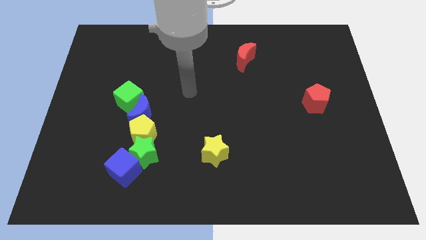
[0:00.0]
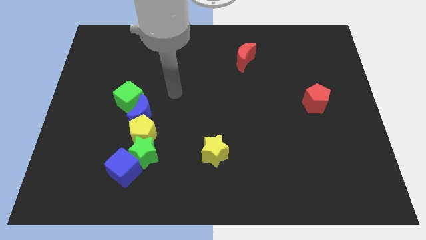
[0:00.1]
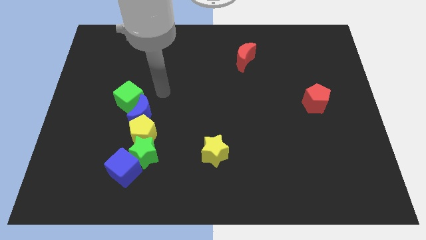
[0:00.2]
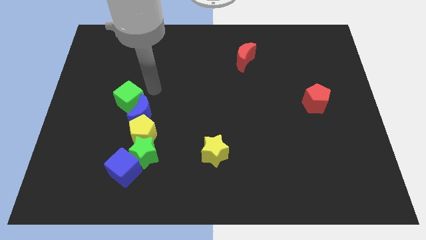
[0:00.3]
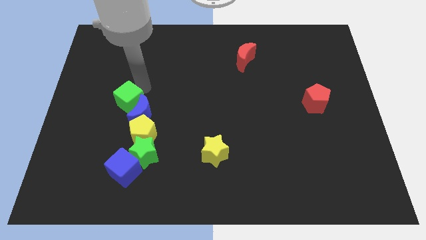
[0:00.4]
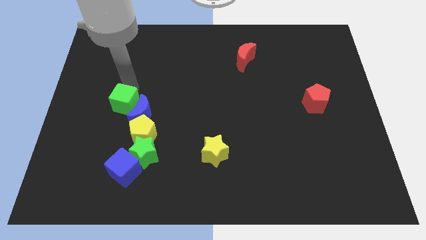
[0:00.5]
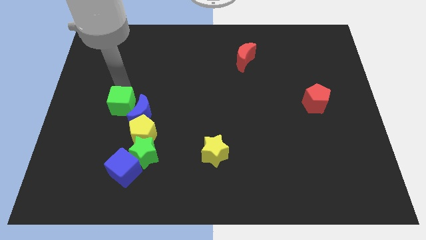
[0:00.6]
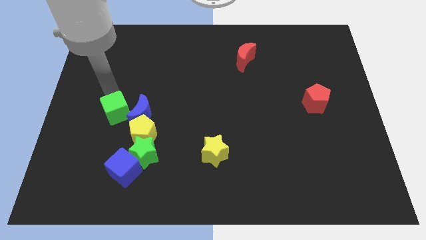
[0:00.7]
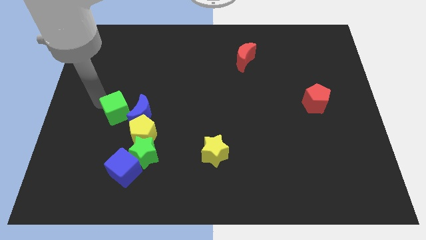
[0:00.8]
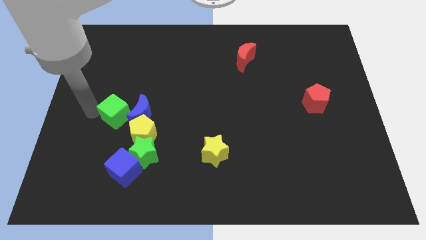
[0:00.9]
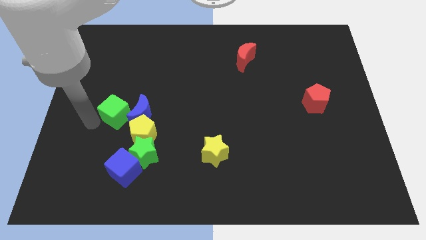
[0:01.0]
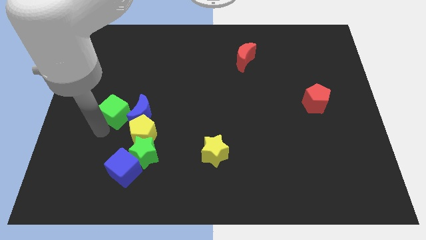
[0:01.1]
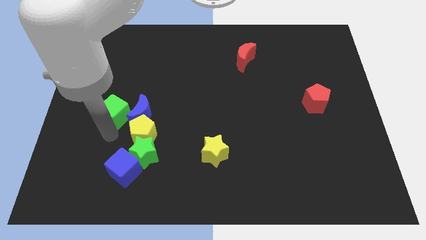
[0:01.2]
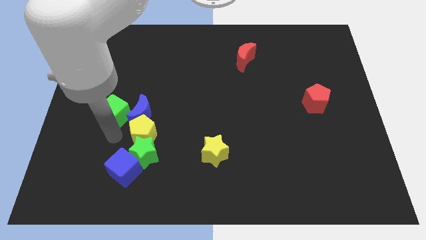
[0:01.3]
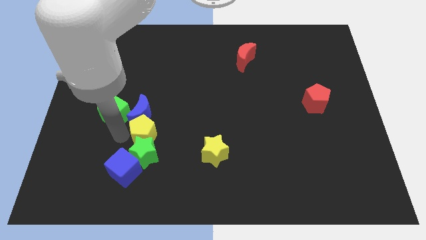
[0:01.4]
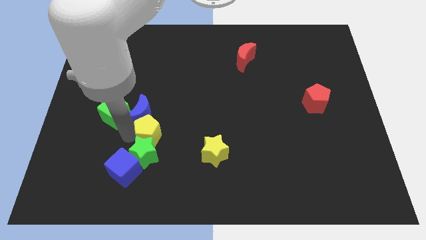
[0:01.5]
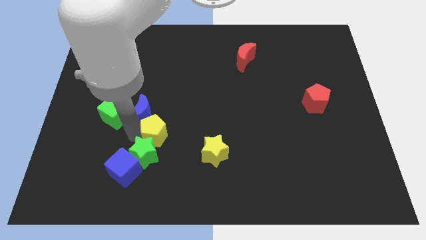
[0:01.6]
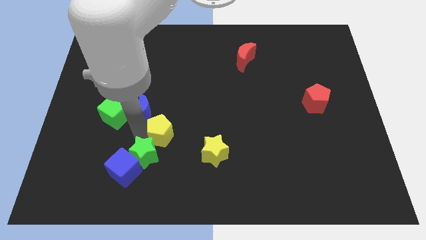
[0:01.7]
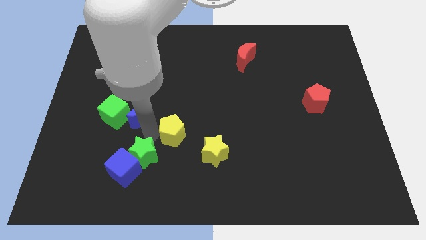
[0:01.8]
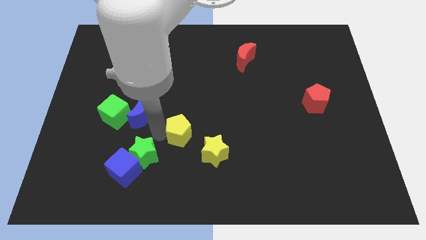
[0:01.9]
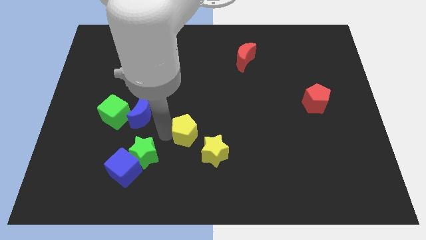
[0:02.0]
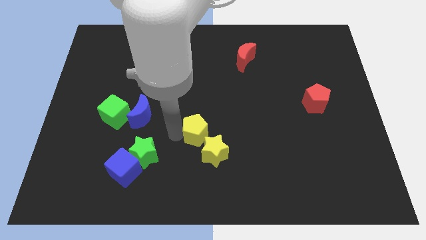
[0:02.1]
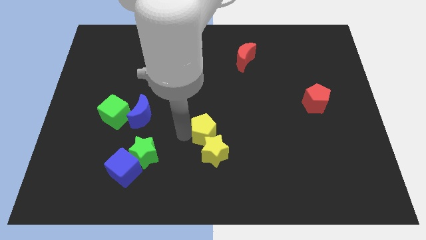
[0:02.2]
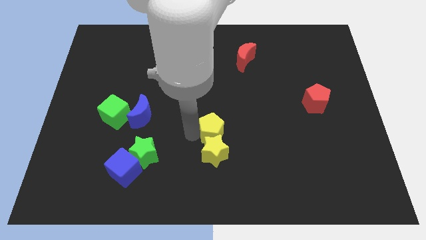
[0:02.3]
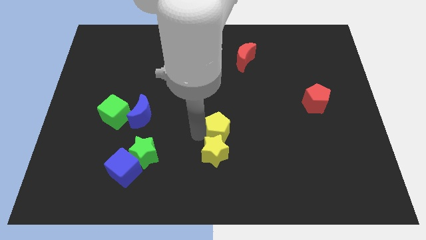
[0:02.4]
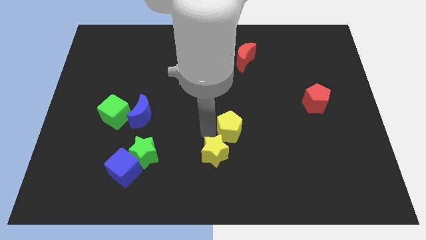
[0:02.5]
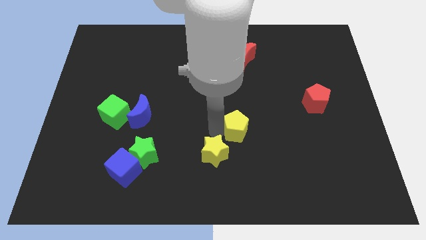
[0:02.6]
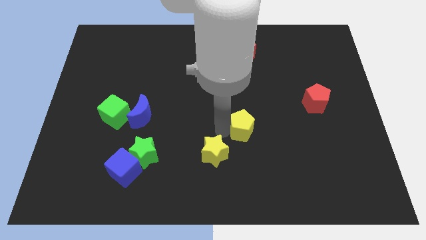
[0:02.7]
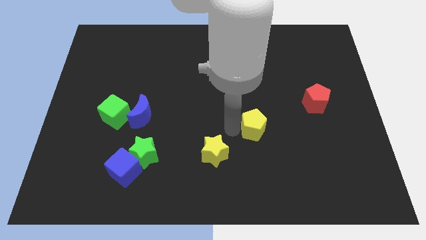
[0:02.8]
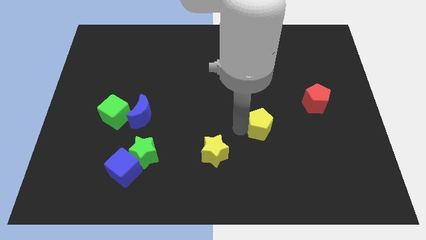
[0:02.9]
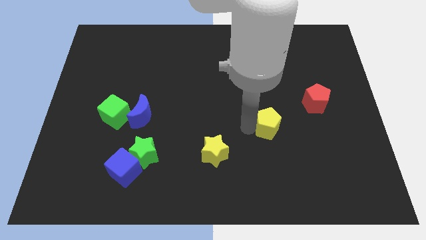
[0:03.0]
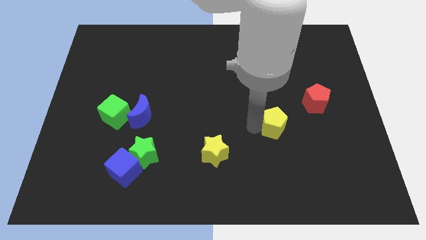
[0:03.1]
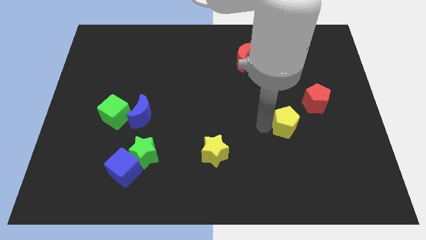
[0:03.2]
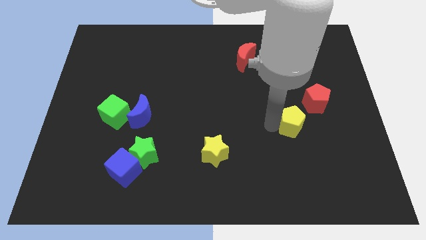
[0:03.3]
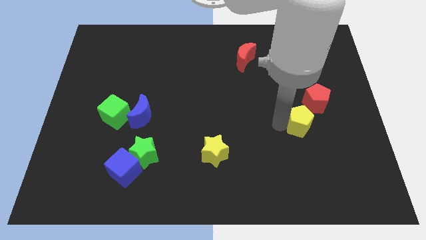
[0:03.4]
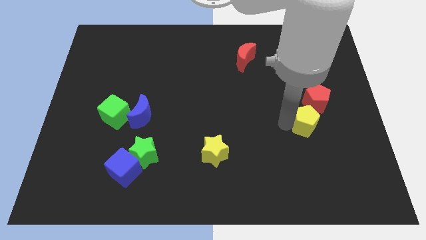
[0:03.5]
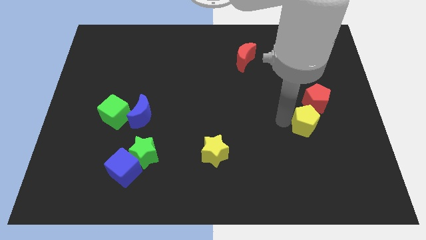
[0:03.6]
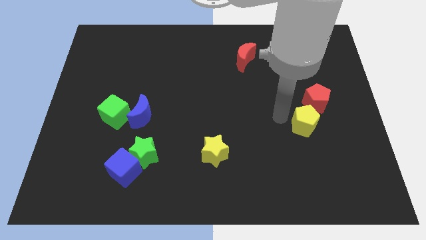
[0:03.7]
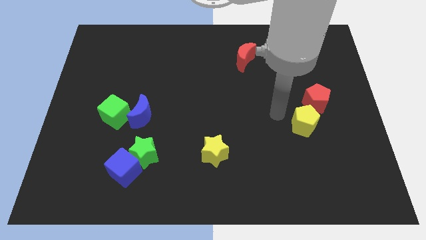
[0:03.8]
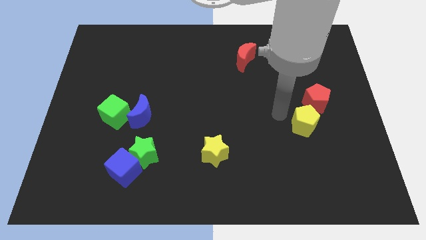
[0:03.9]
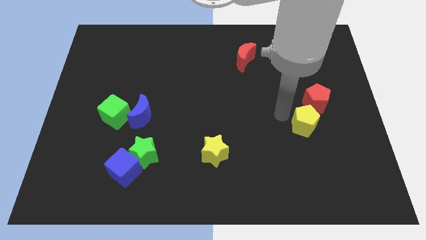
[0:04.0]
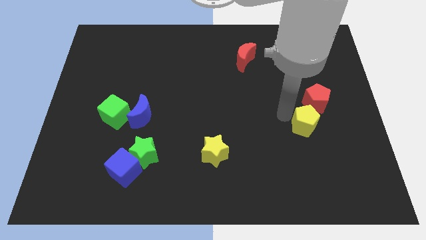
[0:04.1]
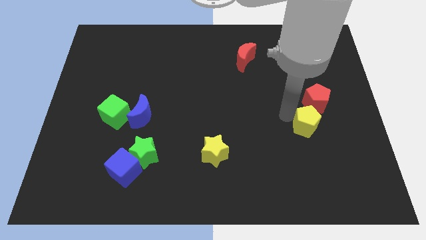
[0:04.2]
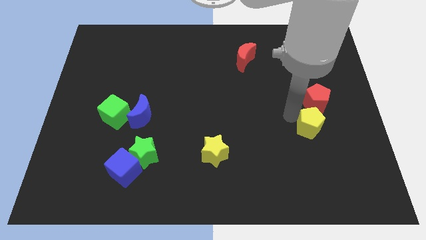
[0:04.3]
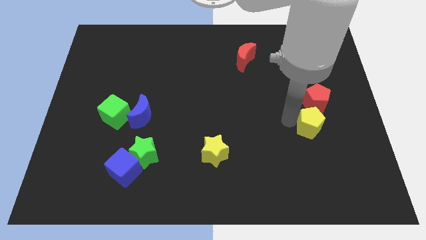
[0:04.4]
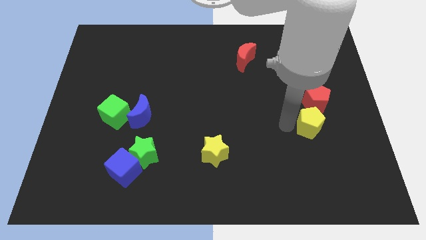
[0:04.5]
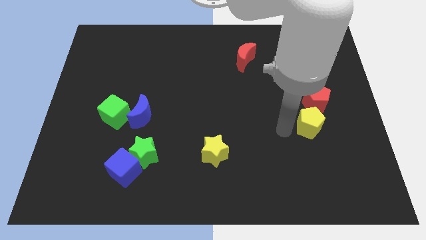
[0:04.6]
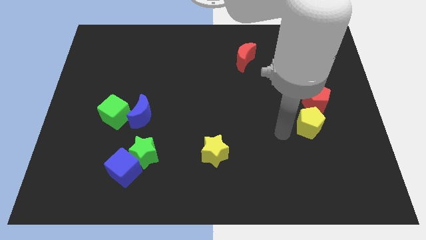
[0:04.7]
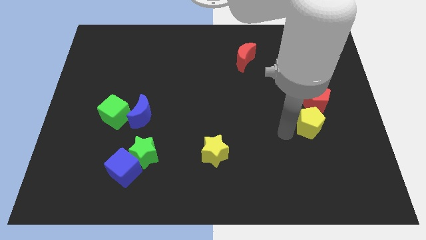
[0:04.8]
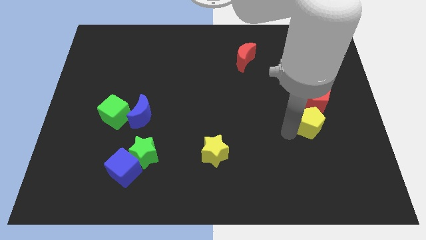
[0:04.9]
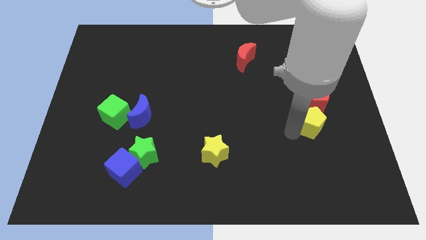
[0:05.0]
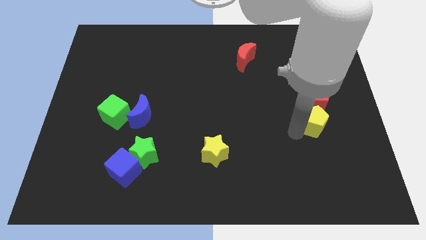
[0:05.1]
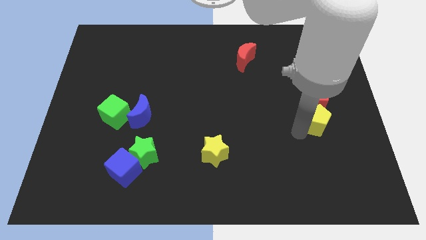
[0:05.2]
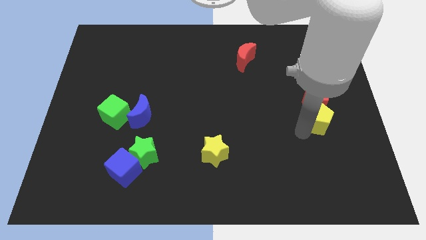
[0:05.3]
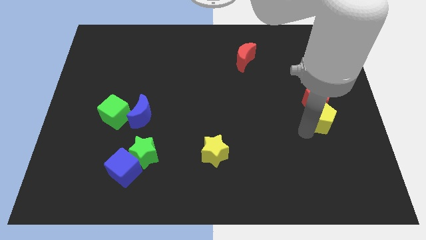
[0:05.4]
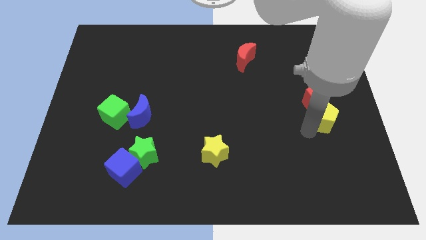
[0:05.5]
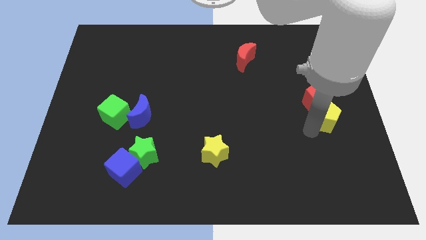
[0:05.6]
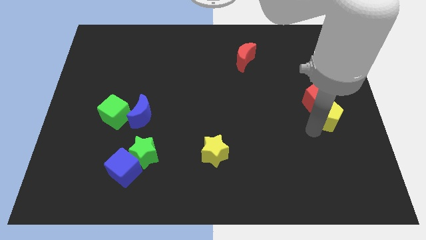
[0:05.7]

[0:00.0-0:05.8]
move the yellow pentagon to the right side of the board

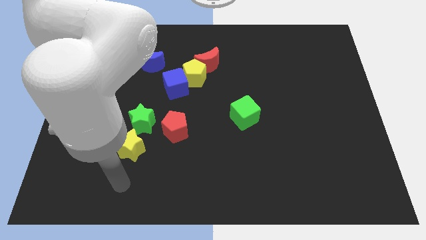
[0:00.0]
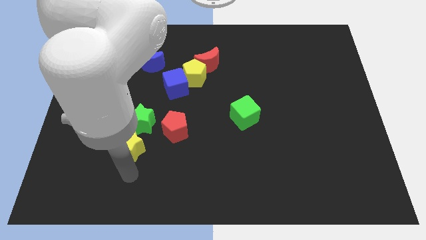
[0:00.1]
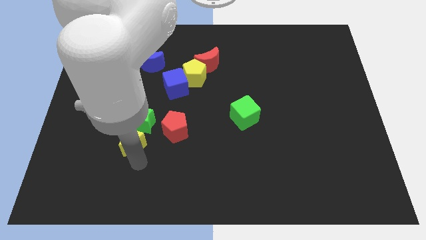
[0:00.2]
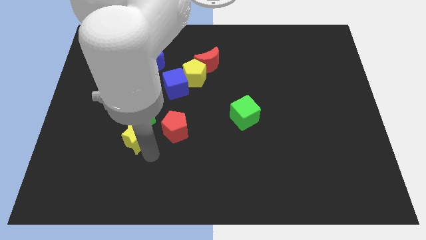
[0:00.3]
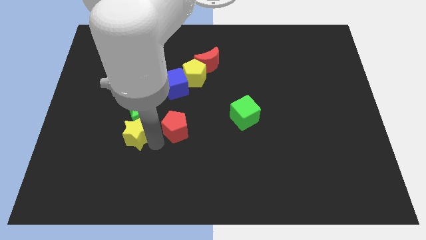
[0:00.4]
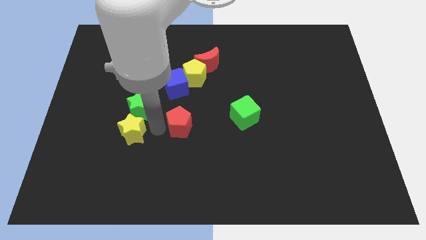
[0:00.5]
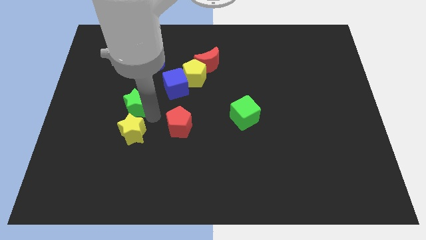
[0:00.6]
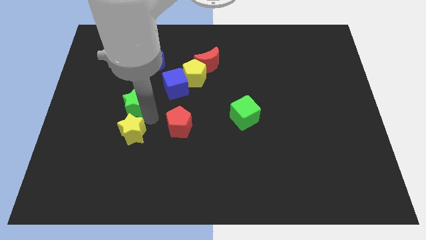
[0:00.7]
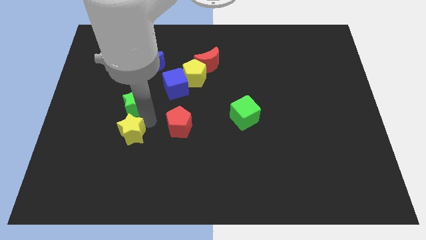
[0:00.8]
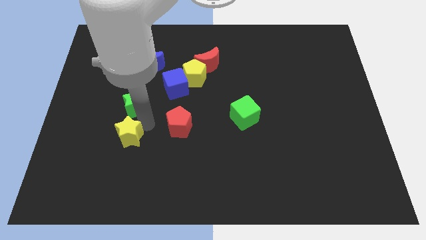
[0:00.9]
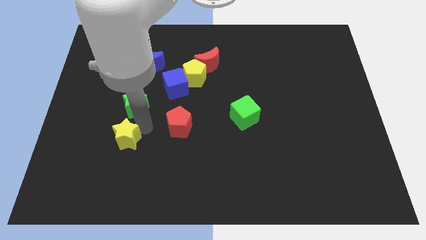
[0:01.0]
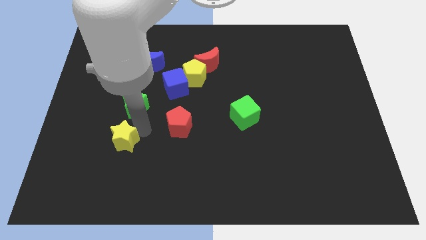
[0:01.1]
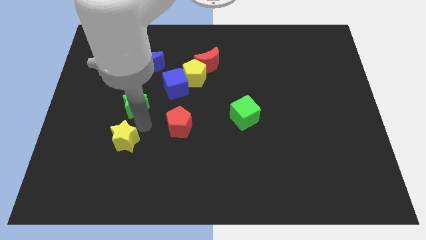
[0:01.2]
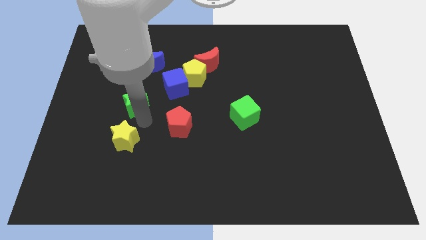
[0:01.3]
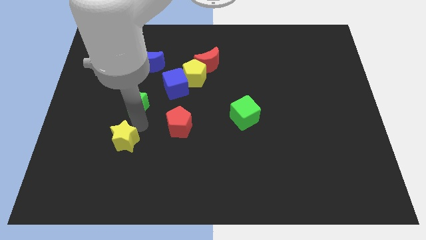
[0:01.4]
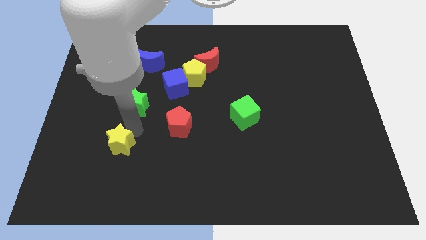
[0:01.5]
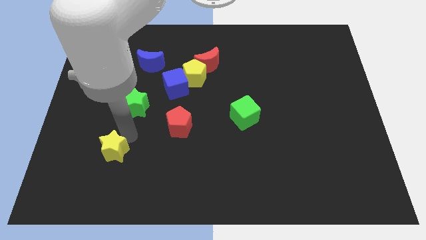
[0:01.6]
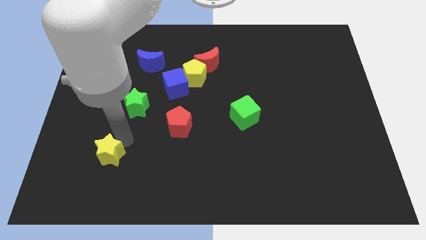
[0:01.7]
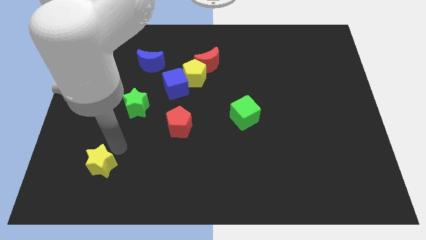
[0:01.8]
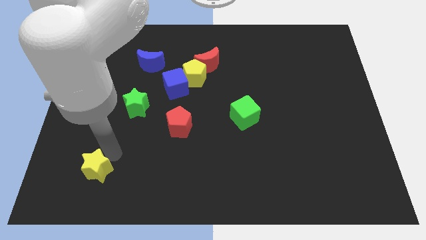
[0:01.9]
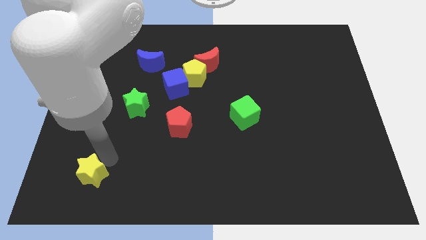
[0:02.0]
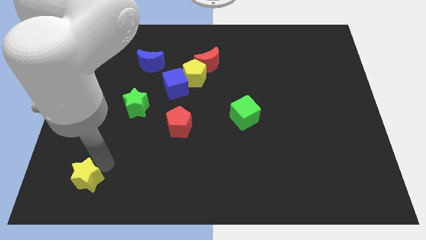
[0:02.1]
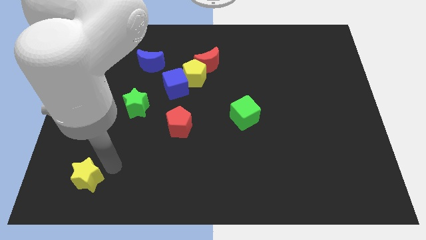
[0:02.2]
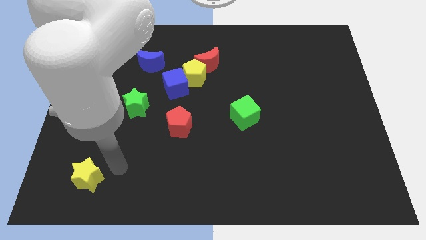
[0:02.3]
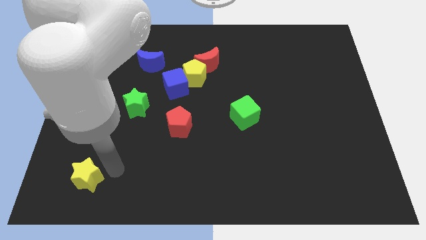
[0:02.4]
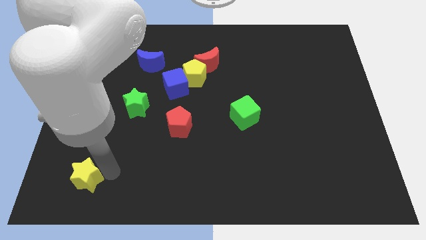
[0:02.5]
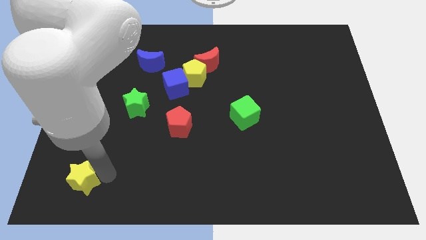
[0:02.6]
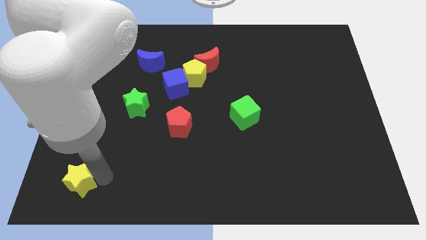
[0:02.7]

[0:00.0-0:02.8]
put the yellow star to the bottom left
